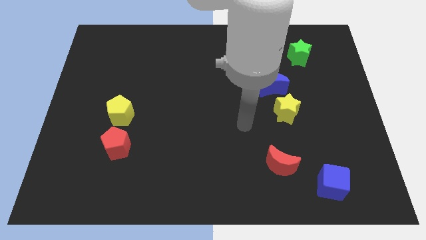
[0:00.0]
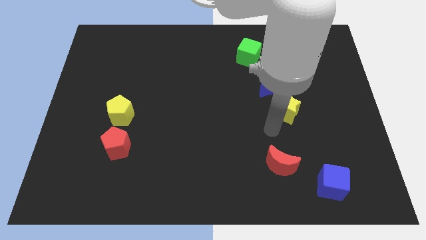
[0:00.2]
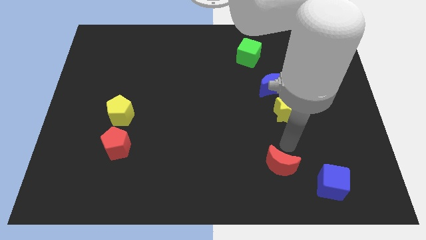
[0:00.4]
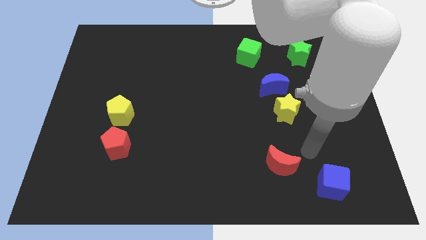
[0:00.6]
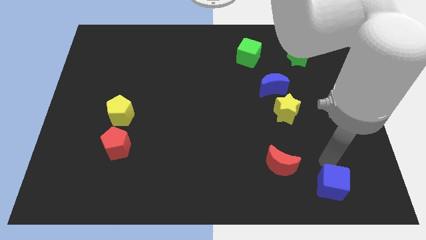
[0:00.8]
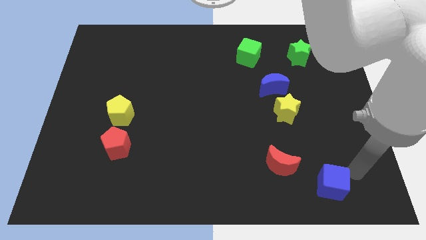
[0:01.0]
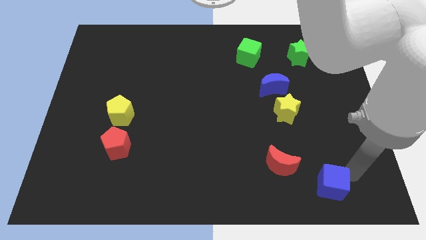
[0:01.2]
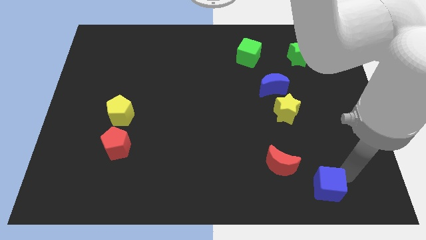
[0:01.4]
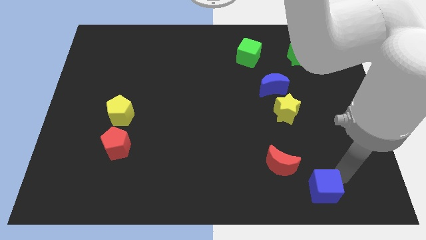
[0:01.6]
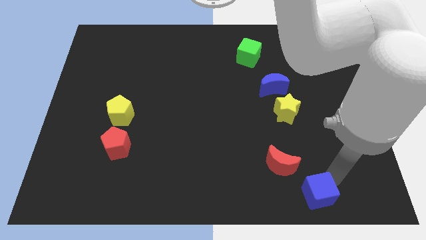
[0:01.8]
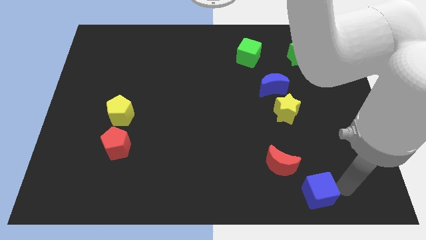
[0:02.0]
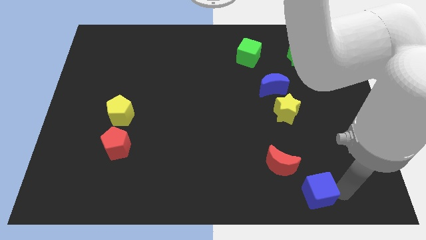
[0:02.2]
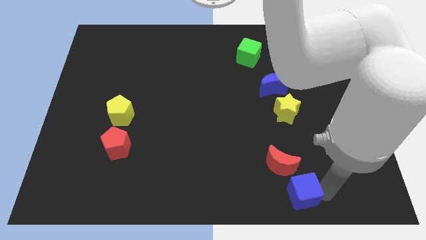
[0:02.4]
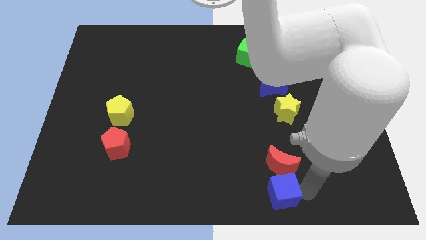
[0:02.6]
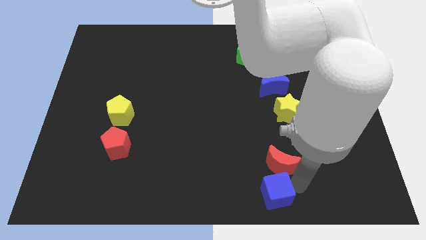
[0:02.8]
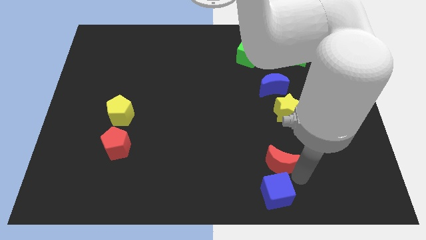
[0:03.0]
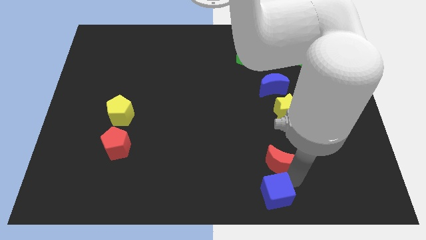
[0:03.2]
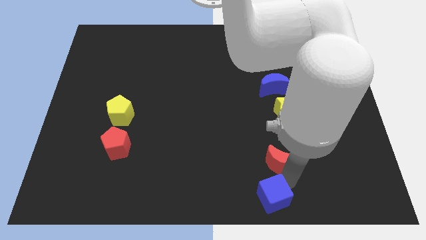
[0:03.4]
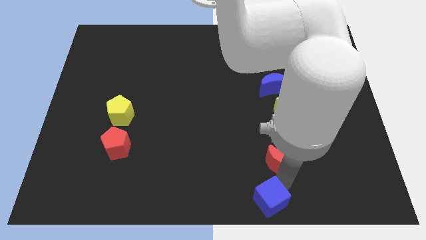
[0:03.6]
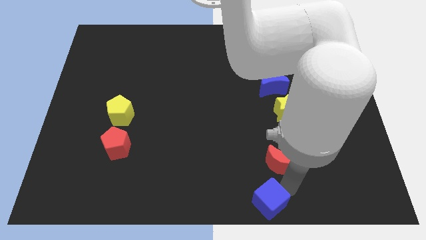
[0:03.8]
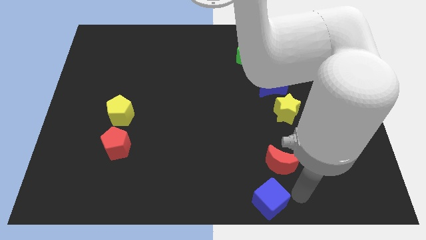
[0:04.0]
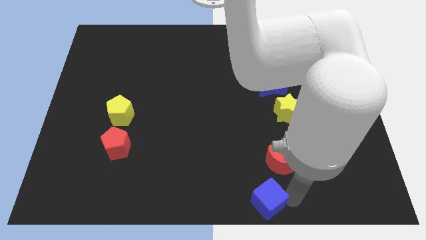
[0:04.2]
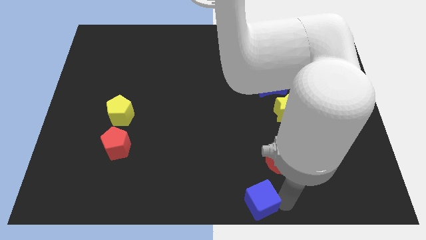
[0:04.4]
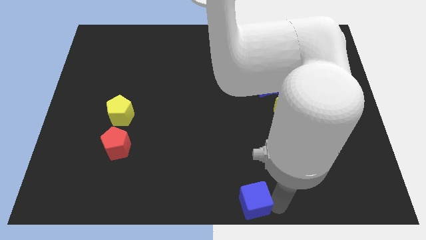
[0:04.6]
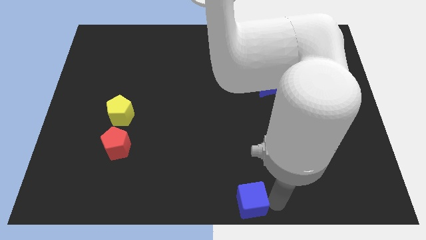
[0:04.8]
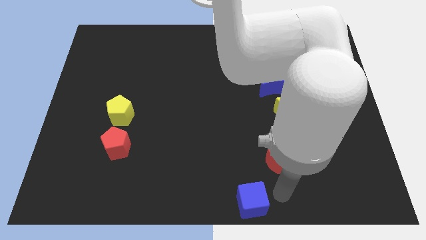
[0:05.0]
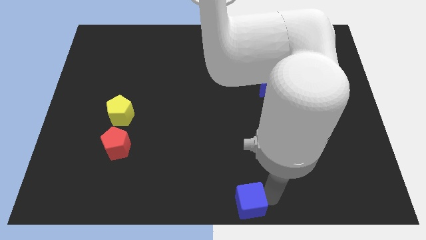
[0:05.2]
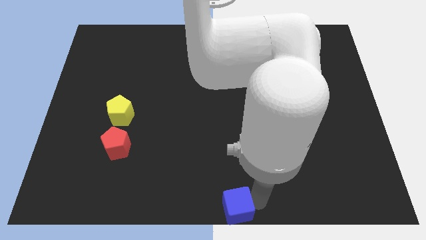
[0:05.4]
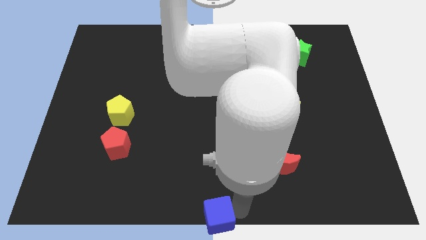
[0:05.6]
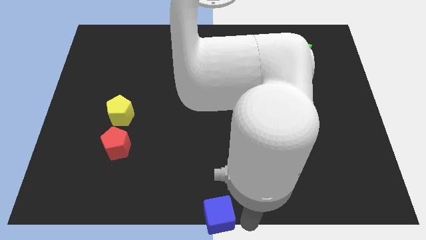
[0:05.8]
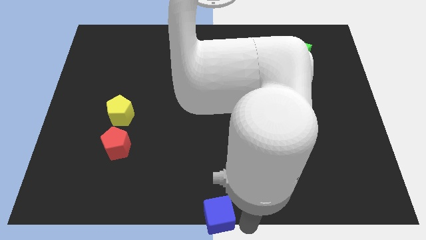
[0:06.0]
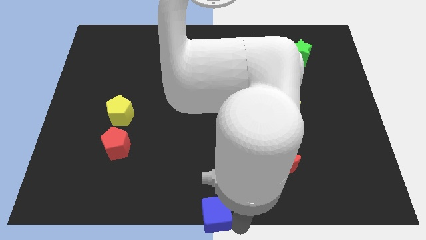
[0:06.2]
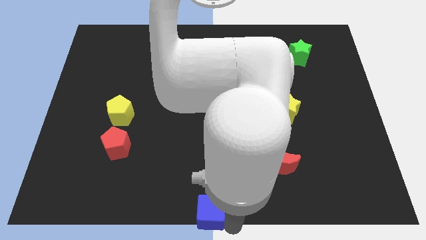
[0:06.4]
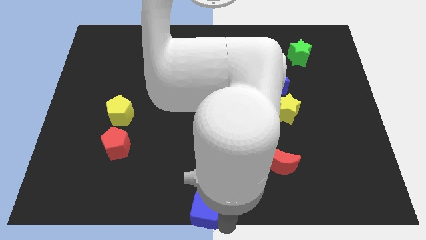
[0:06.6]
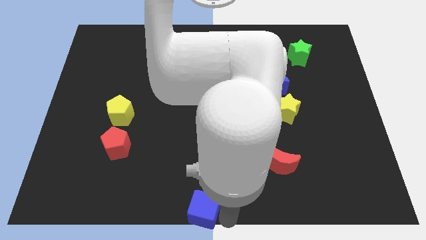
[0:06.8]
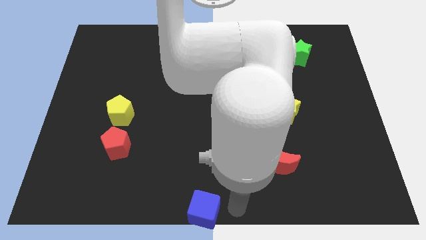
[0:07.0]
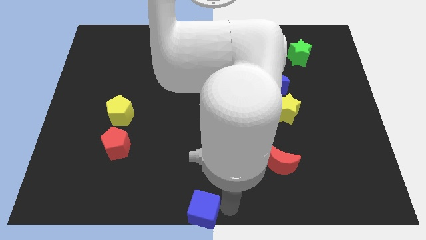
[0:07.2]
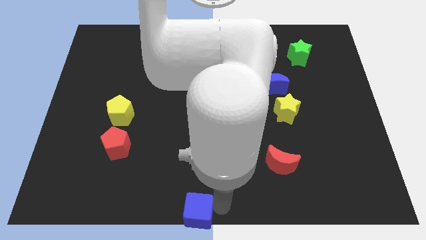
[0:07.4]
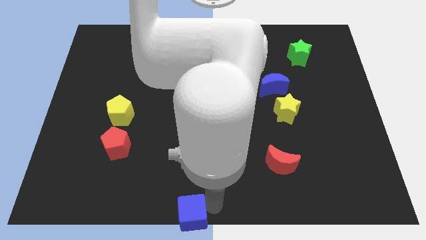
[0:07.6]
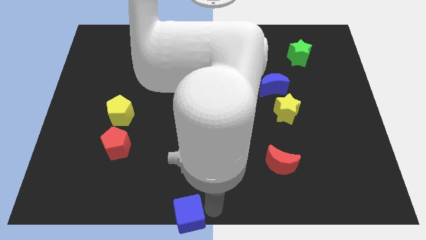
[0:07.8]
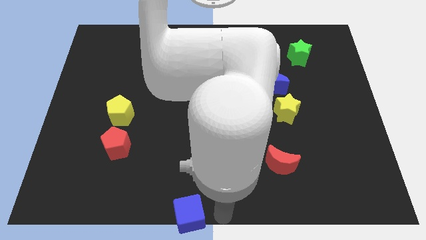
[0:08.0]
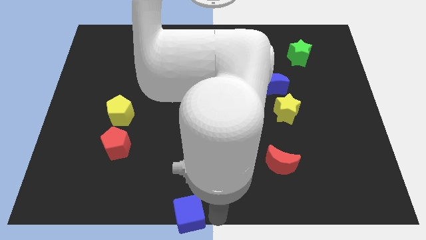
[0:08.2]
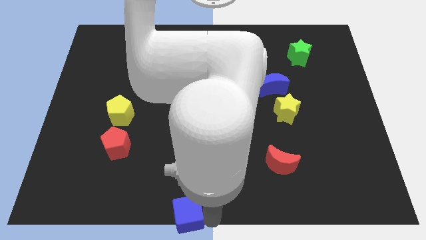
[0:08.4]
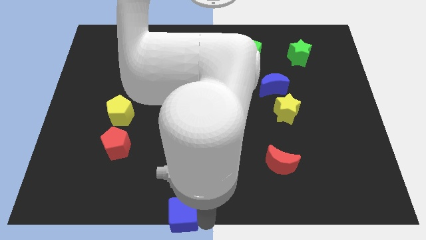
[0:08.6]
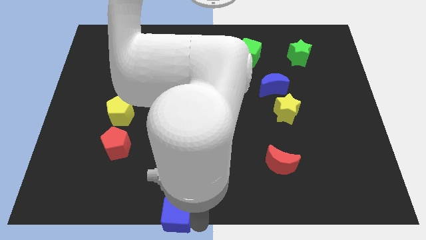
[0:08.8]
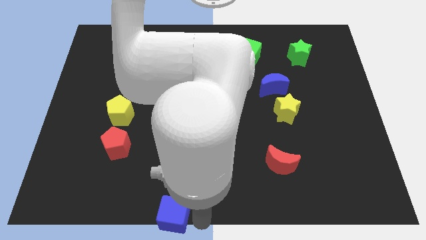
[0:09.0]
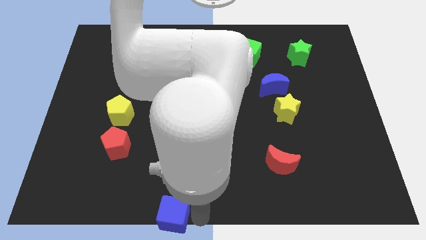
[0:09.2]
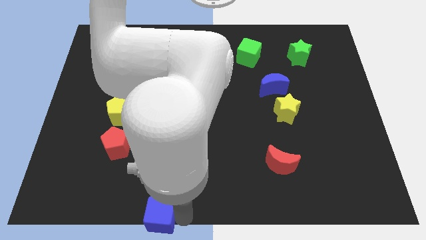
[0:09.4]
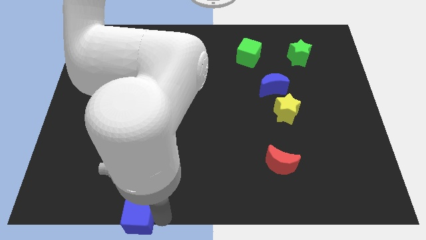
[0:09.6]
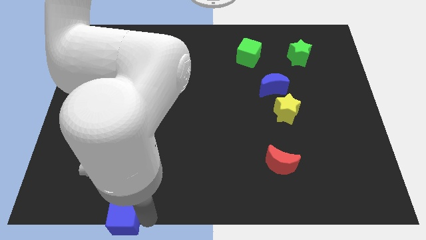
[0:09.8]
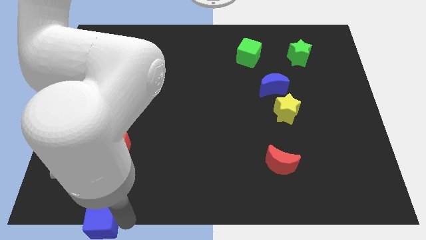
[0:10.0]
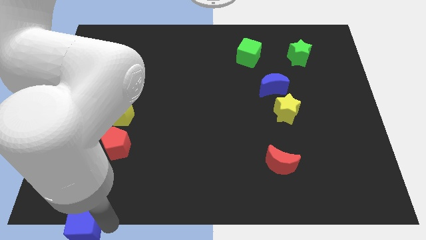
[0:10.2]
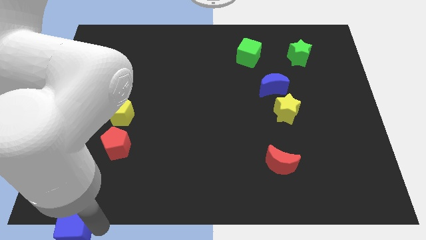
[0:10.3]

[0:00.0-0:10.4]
slide the blue cube to the bottom left of the board
